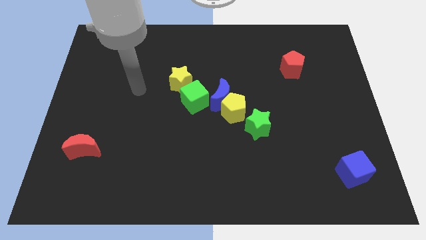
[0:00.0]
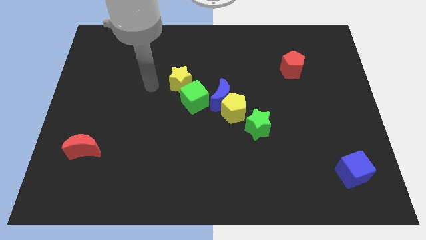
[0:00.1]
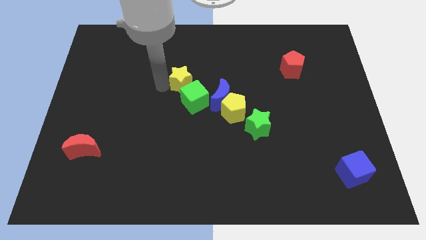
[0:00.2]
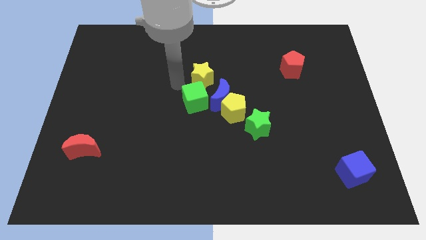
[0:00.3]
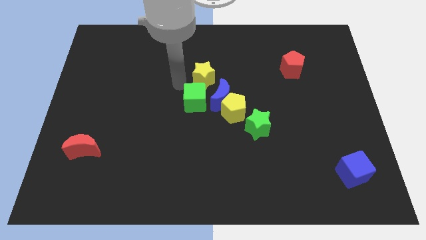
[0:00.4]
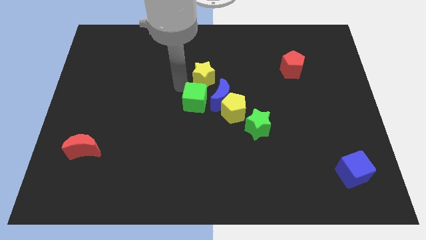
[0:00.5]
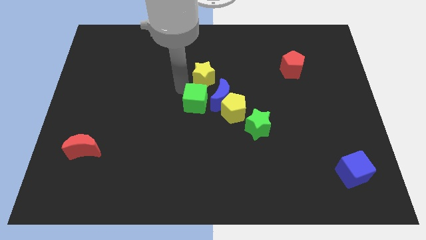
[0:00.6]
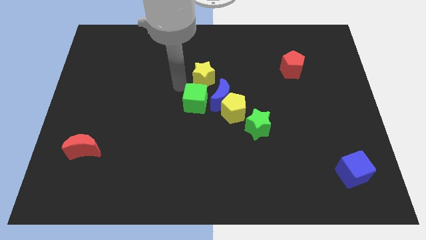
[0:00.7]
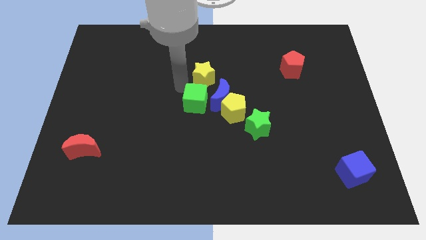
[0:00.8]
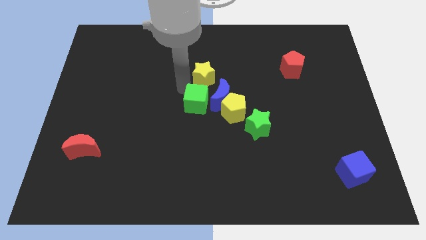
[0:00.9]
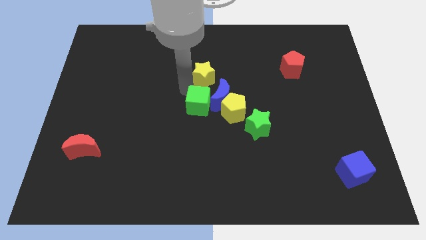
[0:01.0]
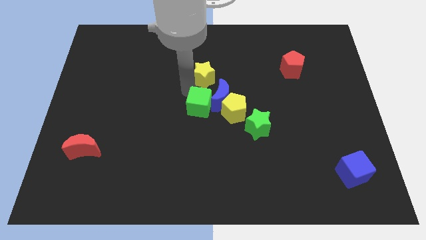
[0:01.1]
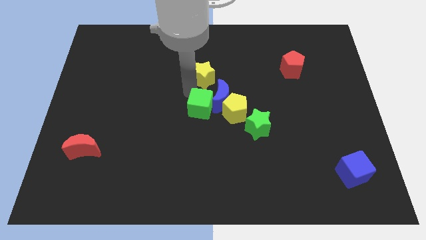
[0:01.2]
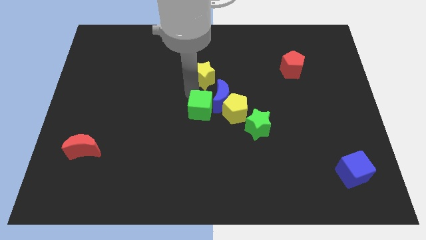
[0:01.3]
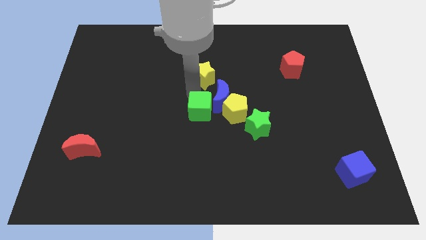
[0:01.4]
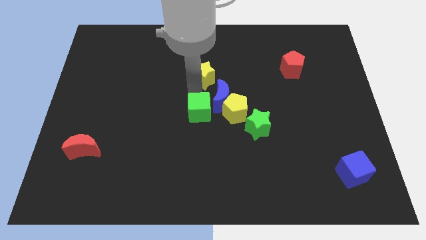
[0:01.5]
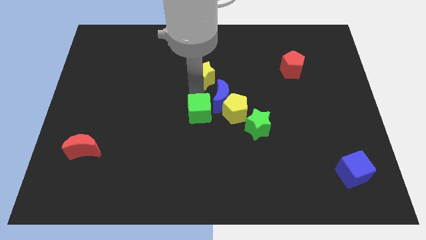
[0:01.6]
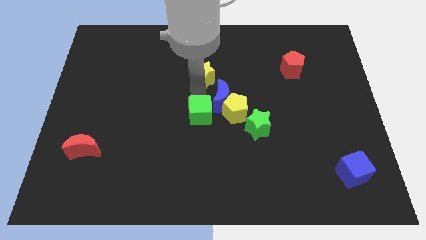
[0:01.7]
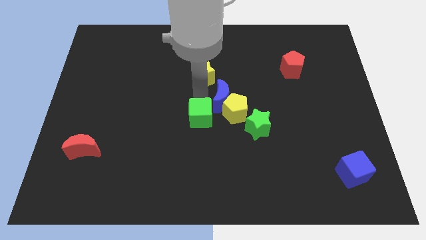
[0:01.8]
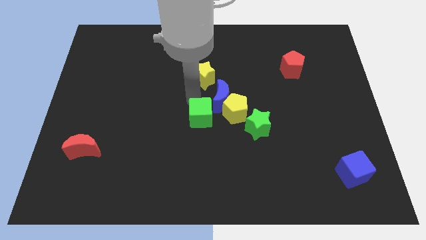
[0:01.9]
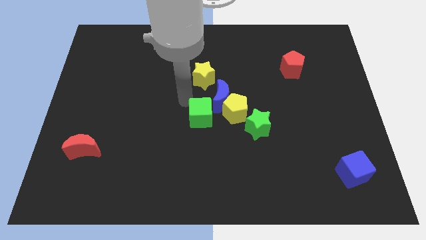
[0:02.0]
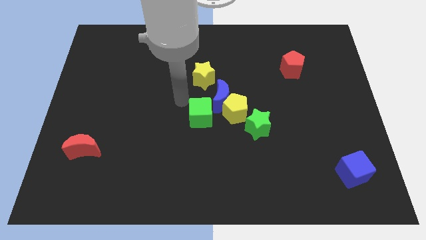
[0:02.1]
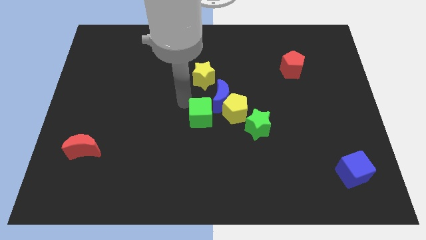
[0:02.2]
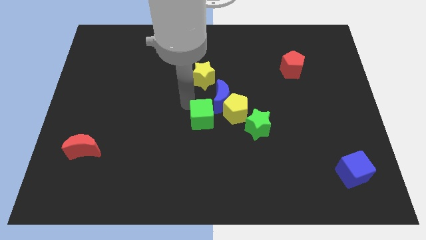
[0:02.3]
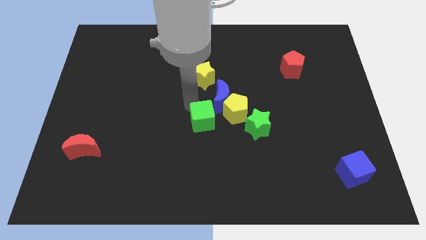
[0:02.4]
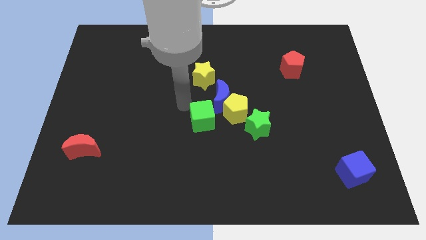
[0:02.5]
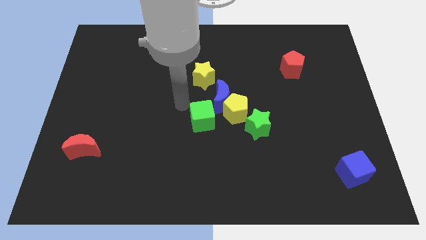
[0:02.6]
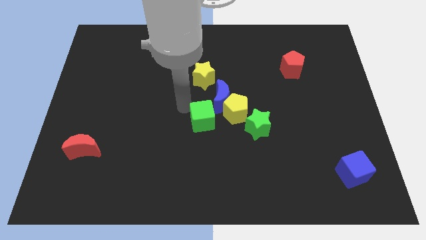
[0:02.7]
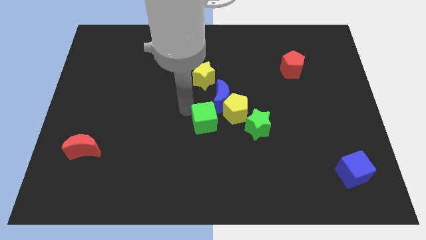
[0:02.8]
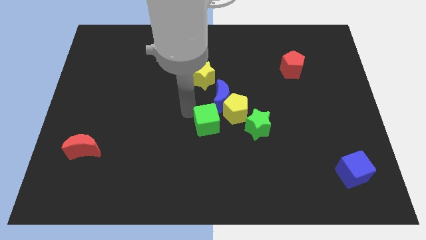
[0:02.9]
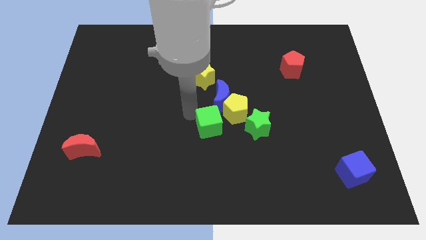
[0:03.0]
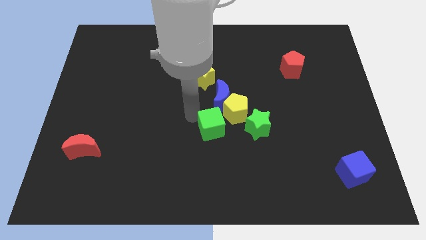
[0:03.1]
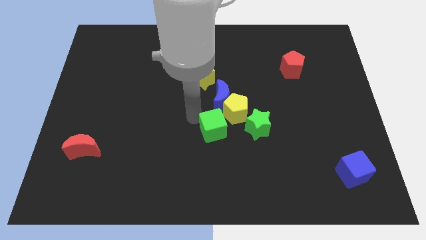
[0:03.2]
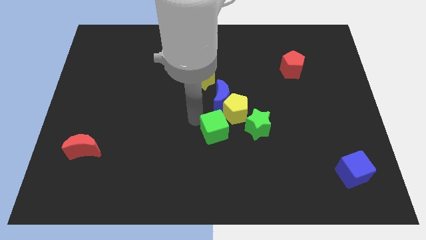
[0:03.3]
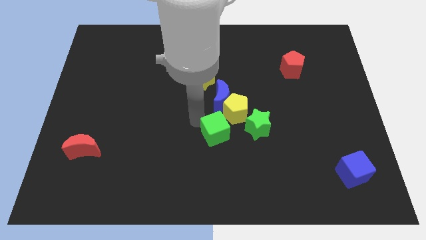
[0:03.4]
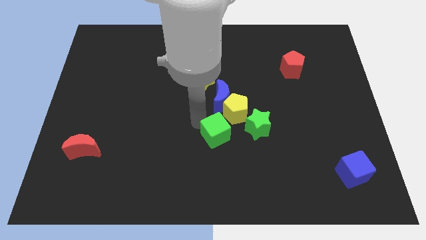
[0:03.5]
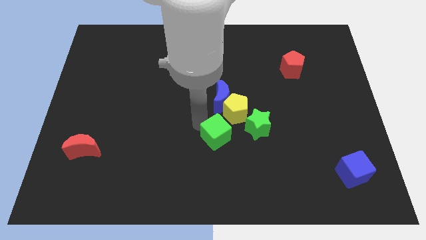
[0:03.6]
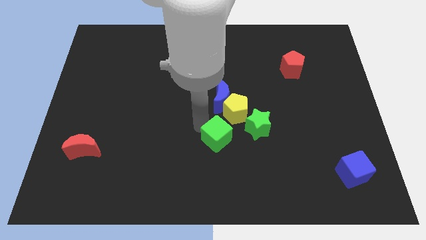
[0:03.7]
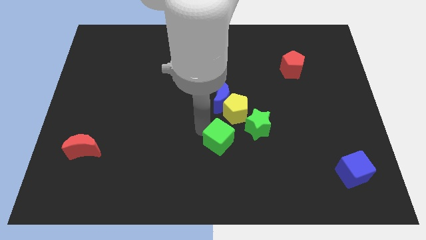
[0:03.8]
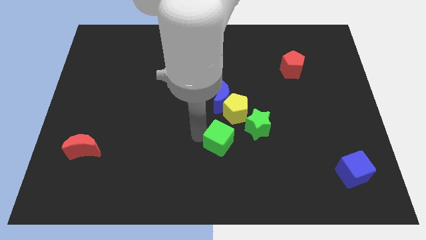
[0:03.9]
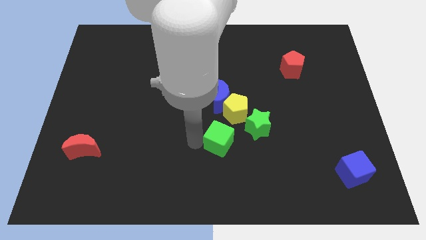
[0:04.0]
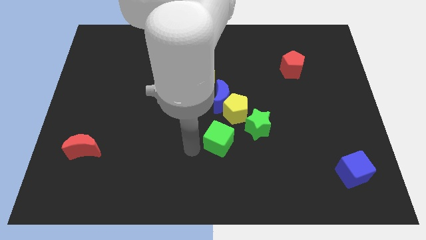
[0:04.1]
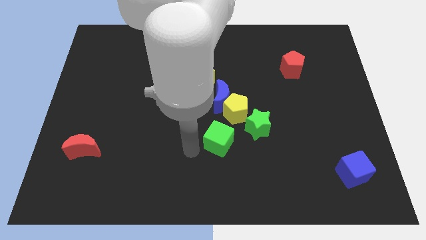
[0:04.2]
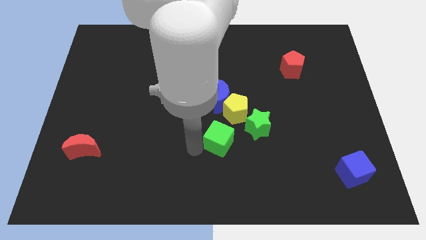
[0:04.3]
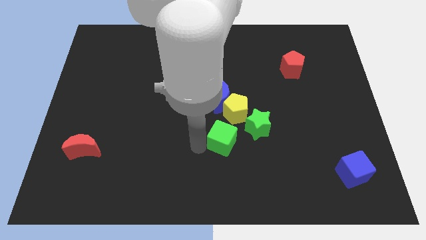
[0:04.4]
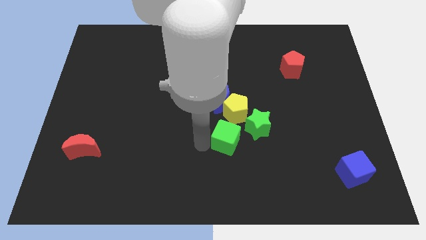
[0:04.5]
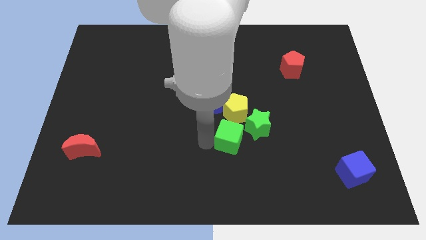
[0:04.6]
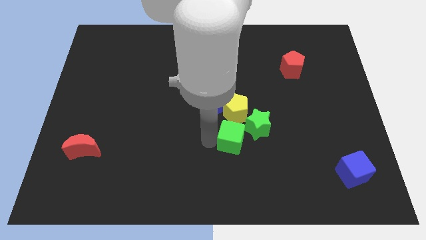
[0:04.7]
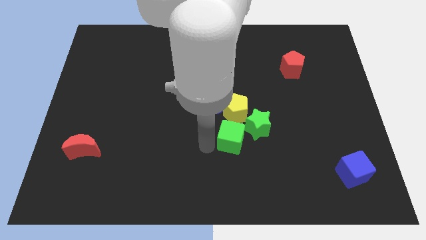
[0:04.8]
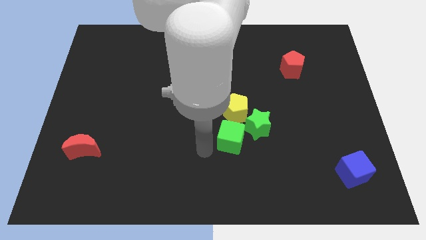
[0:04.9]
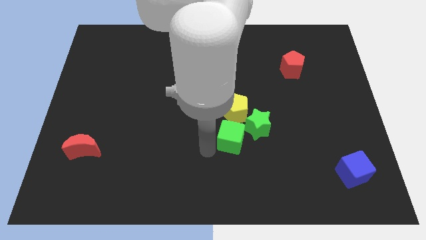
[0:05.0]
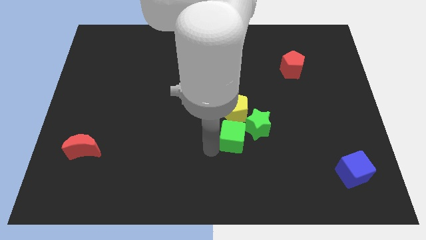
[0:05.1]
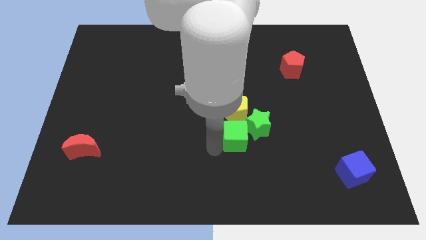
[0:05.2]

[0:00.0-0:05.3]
put the green cube to the green star

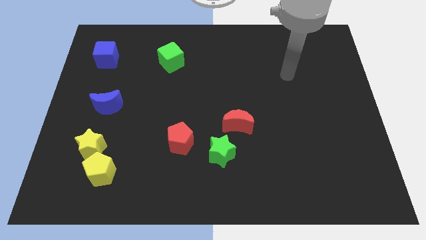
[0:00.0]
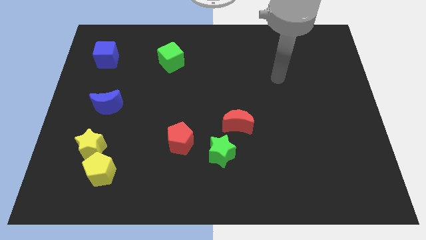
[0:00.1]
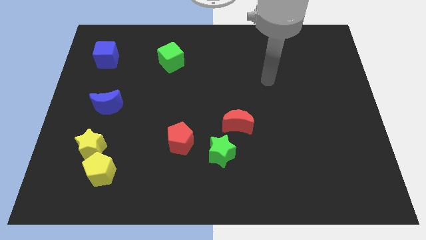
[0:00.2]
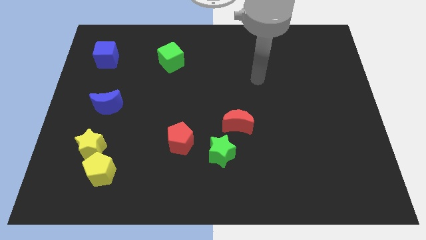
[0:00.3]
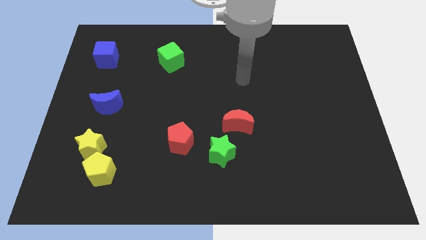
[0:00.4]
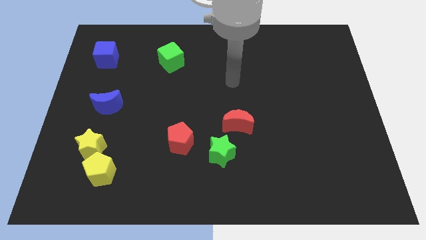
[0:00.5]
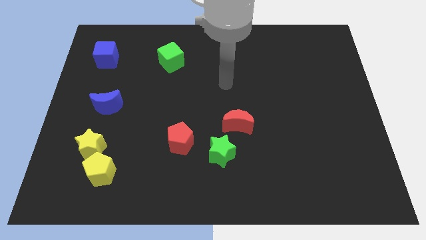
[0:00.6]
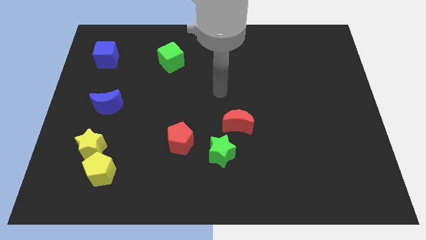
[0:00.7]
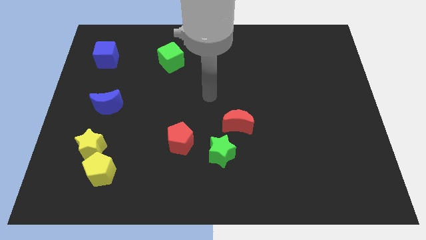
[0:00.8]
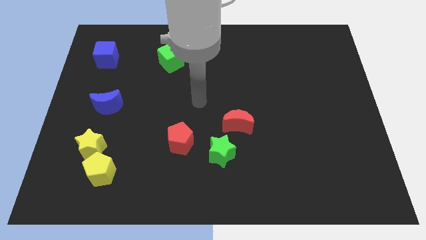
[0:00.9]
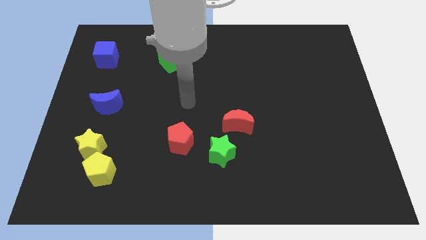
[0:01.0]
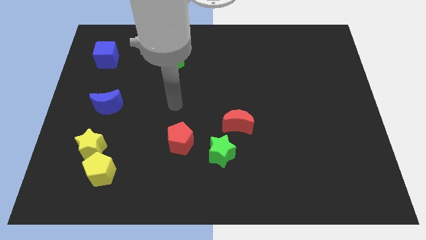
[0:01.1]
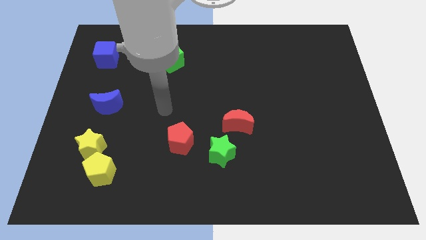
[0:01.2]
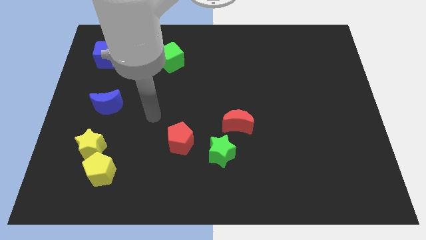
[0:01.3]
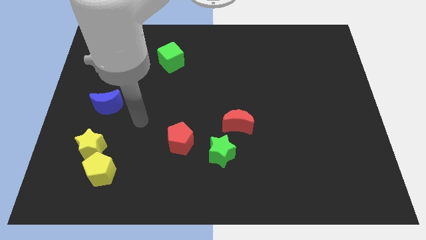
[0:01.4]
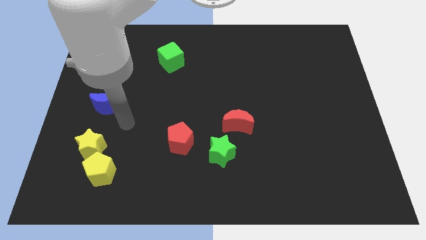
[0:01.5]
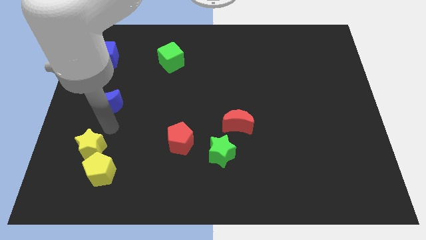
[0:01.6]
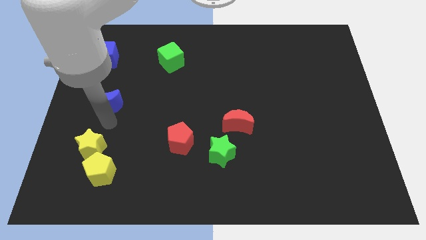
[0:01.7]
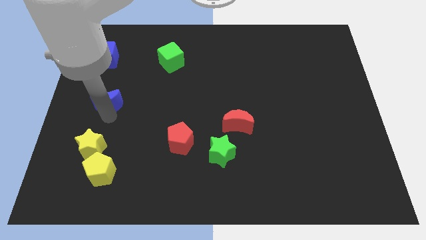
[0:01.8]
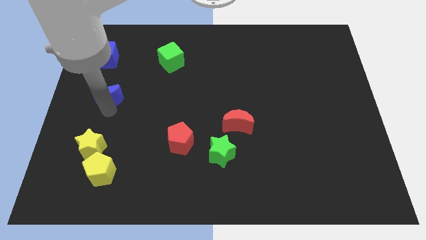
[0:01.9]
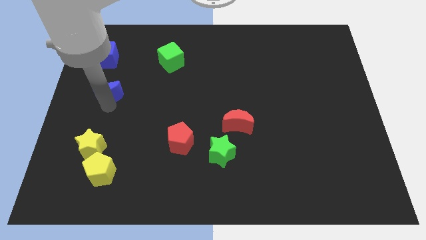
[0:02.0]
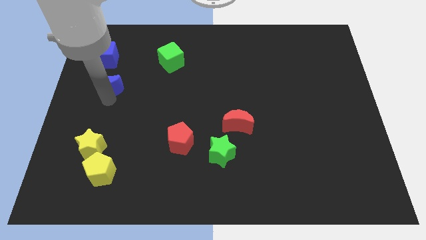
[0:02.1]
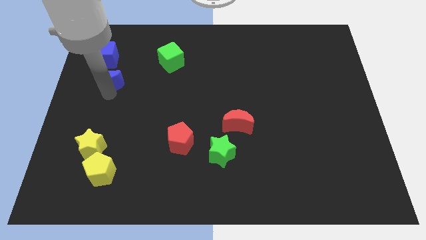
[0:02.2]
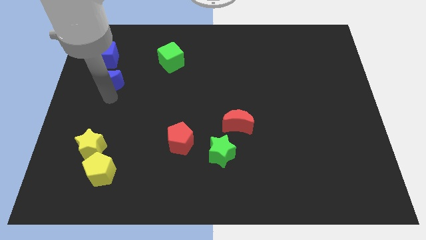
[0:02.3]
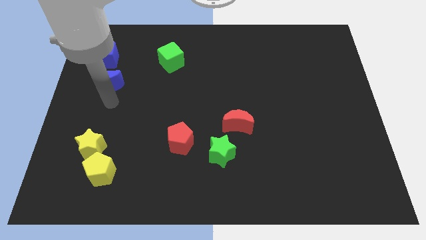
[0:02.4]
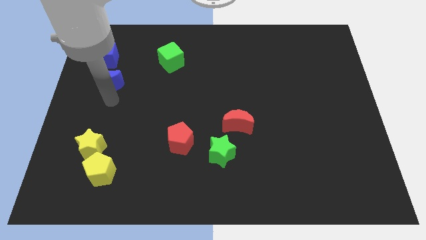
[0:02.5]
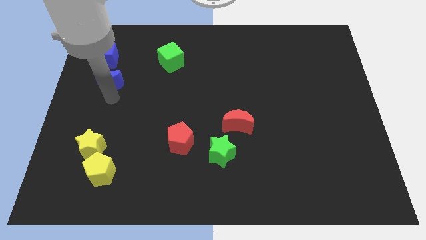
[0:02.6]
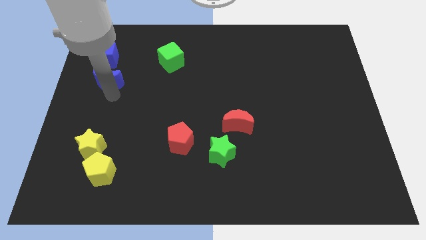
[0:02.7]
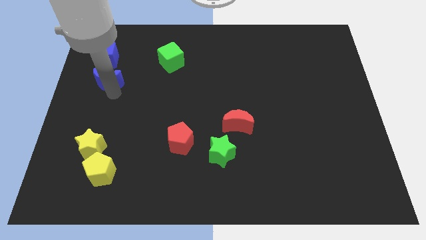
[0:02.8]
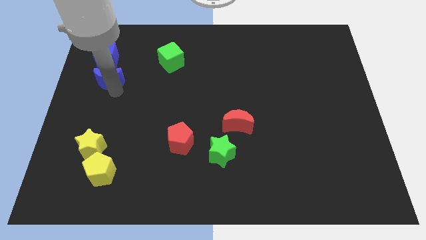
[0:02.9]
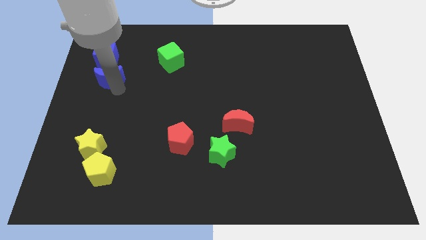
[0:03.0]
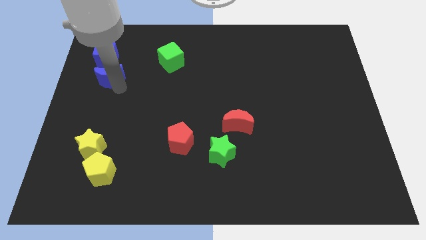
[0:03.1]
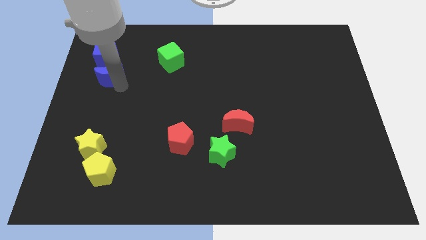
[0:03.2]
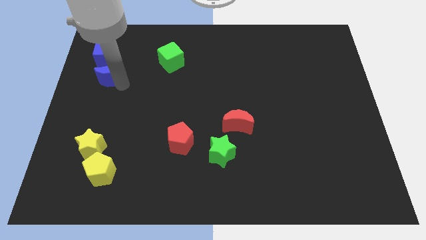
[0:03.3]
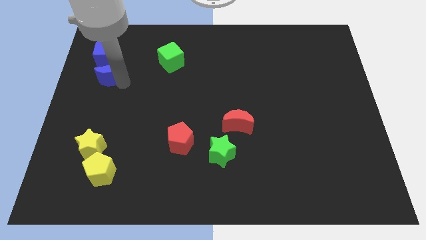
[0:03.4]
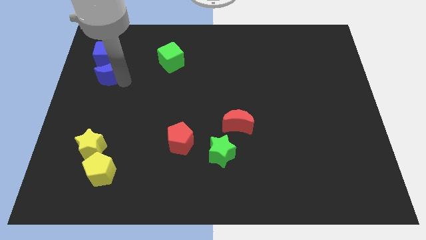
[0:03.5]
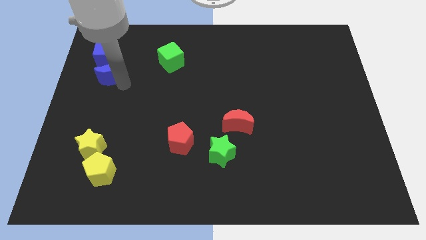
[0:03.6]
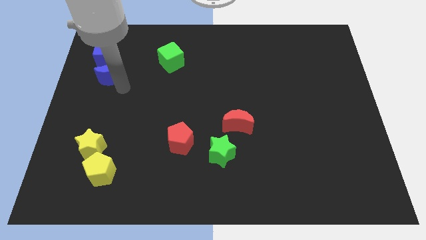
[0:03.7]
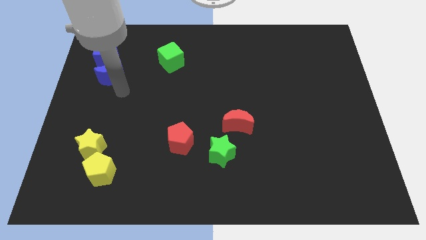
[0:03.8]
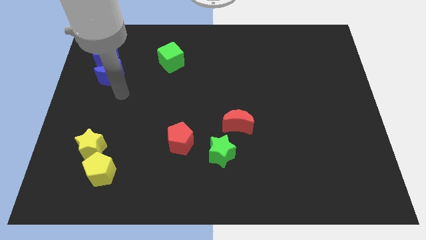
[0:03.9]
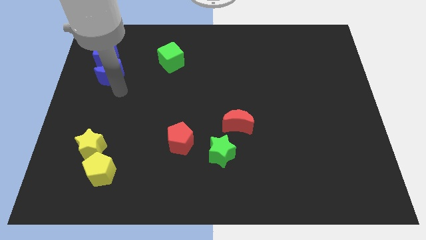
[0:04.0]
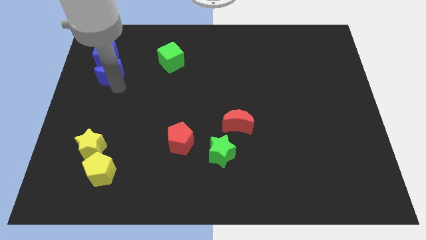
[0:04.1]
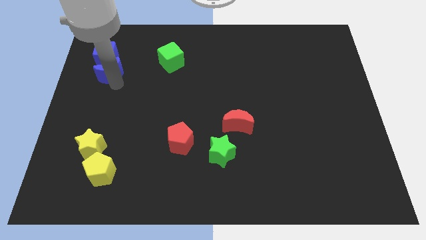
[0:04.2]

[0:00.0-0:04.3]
slide the blue moon towards the blue cube
